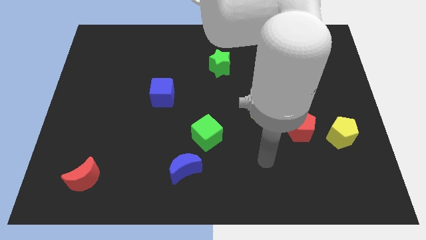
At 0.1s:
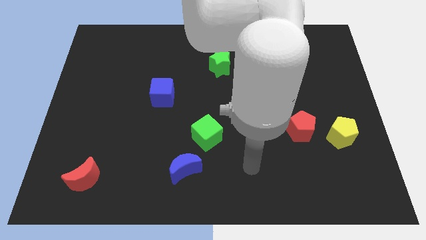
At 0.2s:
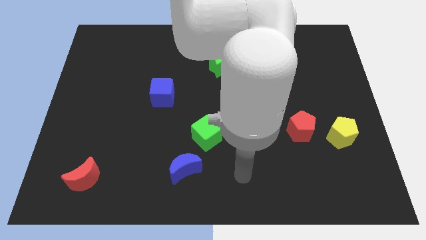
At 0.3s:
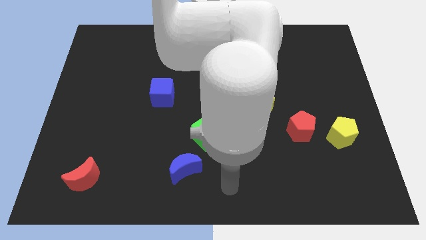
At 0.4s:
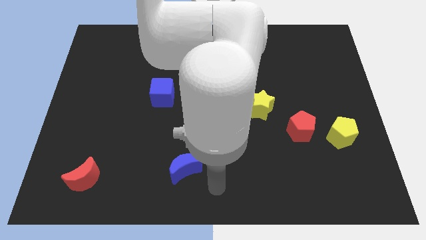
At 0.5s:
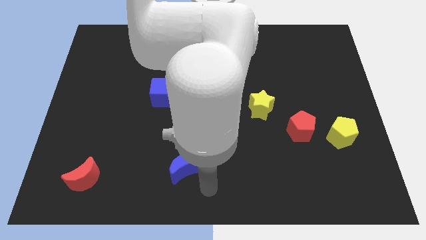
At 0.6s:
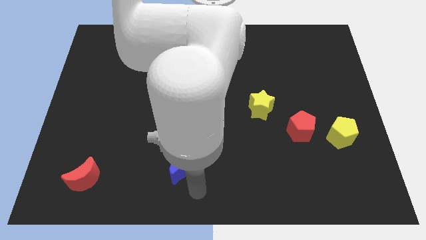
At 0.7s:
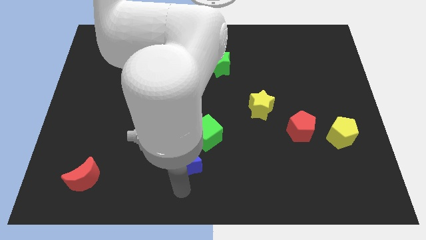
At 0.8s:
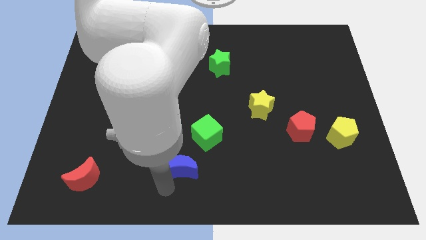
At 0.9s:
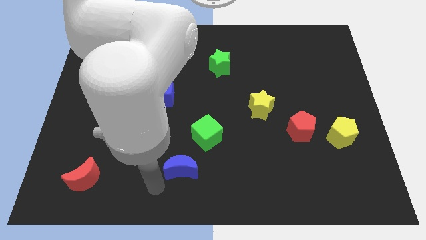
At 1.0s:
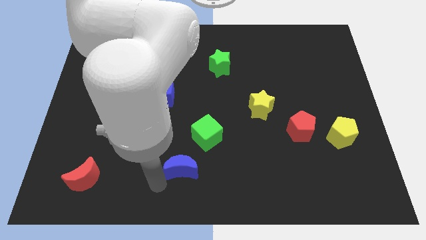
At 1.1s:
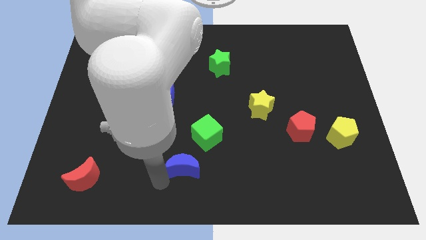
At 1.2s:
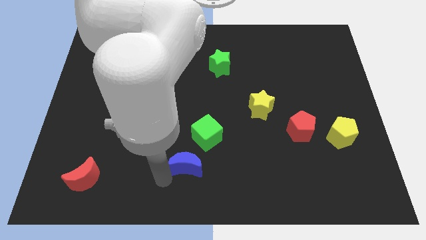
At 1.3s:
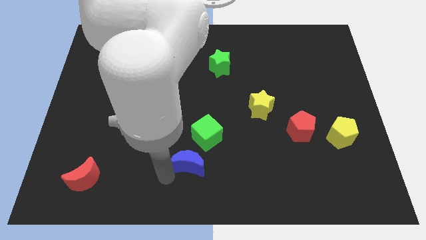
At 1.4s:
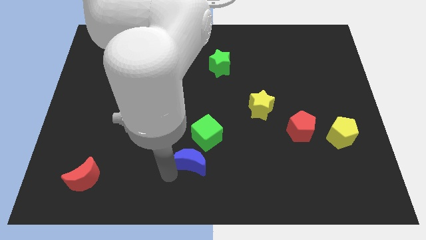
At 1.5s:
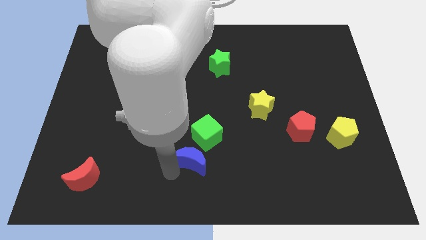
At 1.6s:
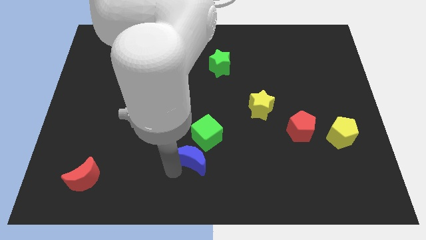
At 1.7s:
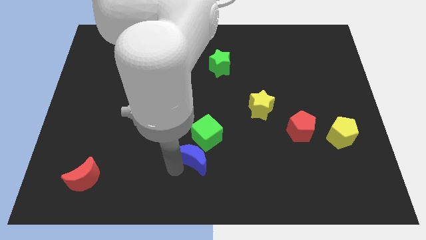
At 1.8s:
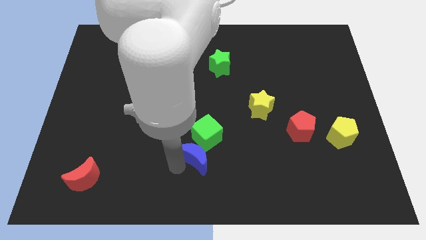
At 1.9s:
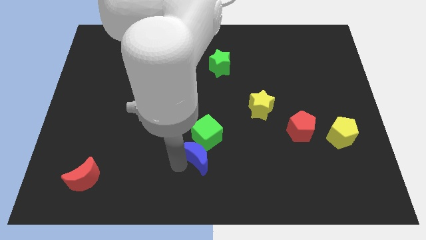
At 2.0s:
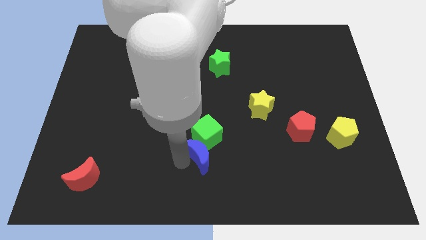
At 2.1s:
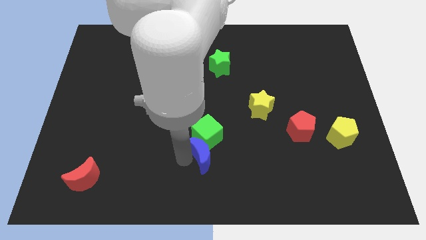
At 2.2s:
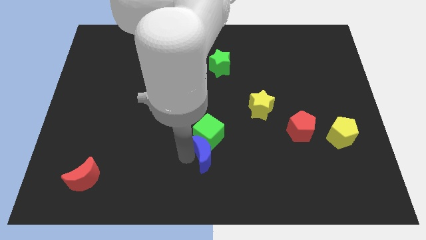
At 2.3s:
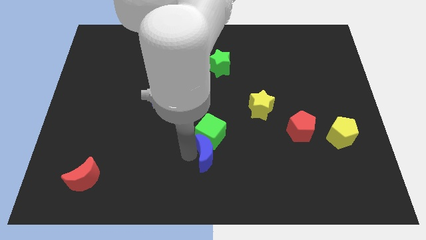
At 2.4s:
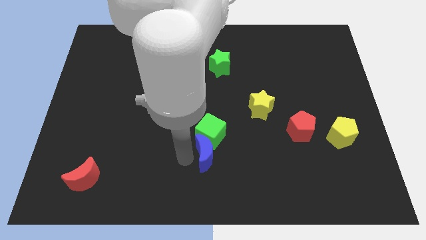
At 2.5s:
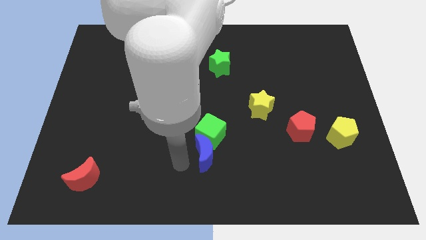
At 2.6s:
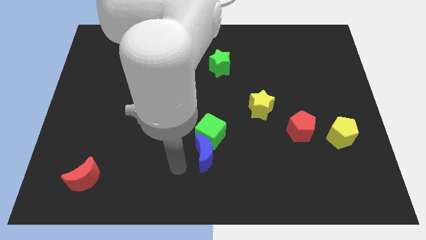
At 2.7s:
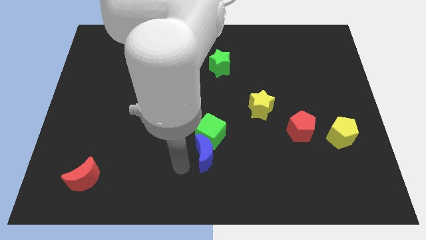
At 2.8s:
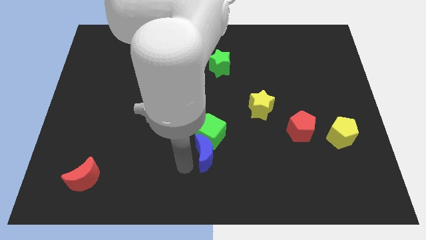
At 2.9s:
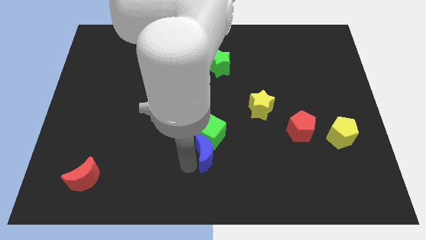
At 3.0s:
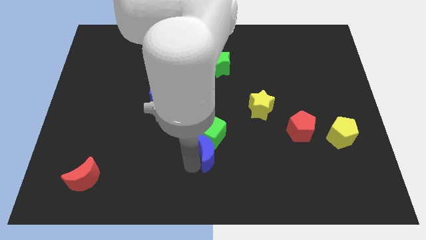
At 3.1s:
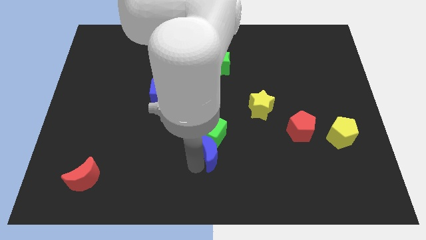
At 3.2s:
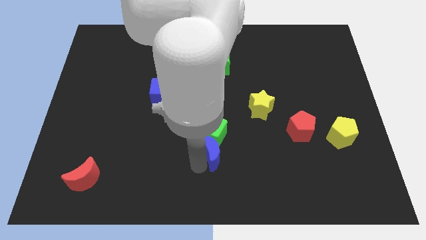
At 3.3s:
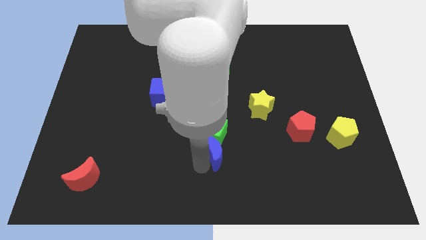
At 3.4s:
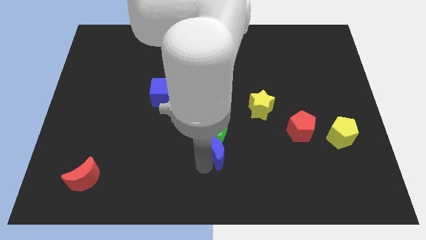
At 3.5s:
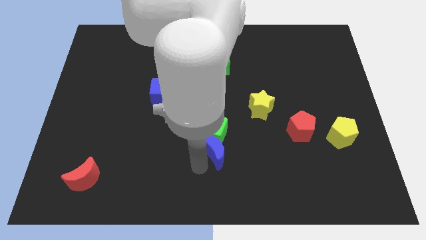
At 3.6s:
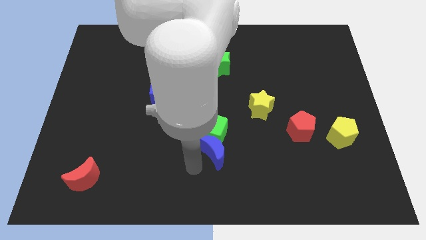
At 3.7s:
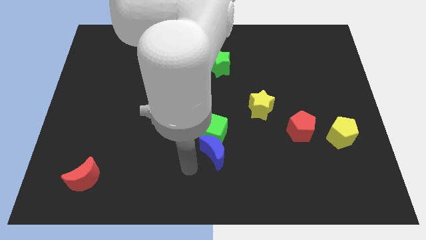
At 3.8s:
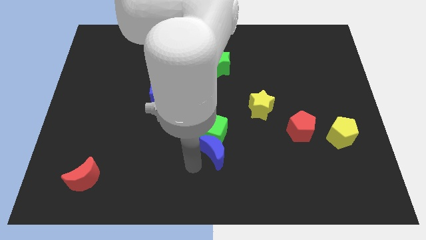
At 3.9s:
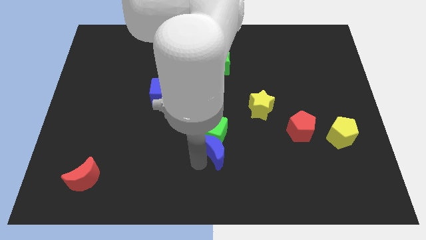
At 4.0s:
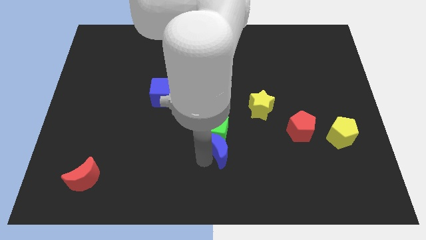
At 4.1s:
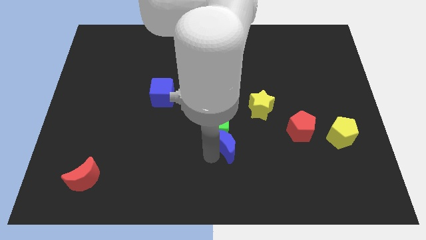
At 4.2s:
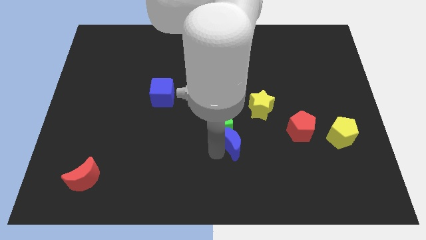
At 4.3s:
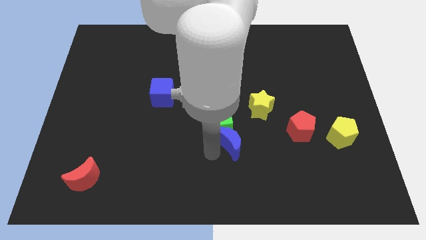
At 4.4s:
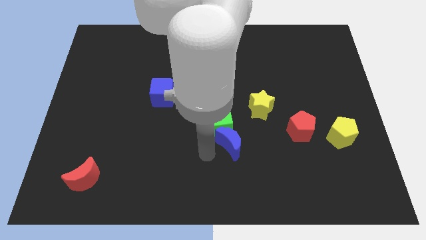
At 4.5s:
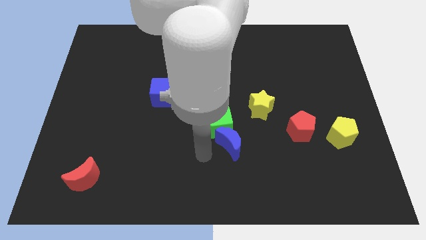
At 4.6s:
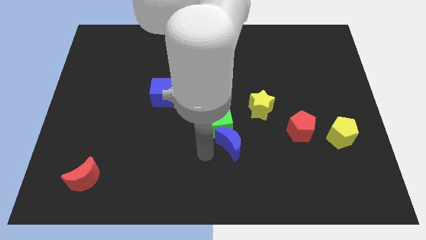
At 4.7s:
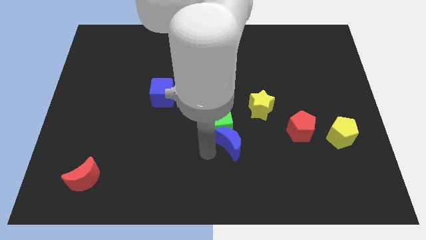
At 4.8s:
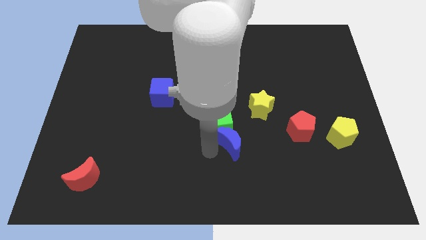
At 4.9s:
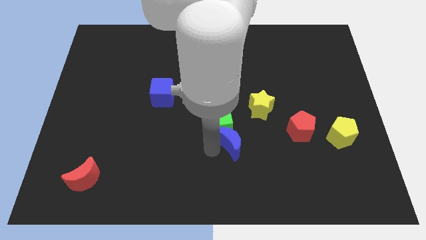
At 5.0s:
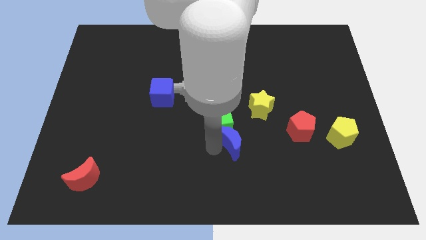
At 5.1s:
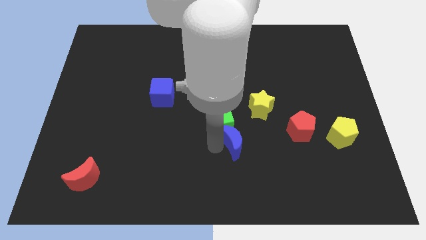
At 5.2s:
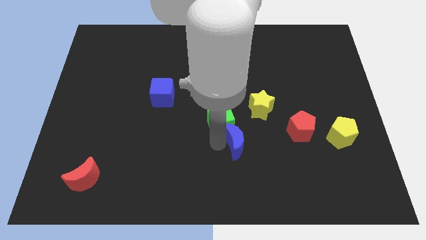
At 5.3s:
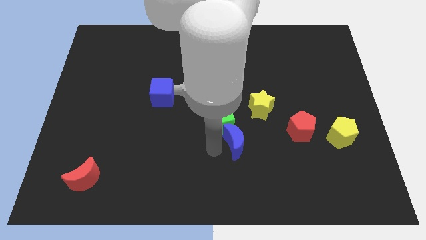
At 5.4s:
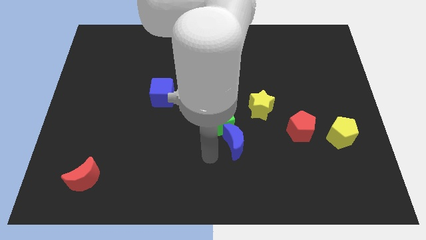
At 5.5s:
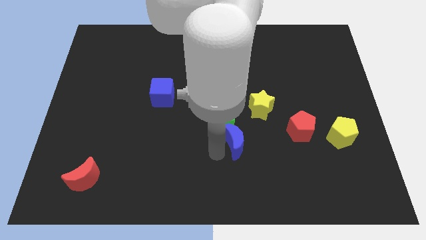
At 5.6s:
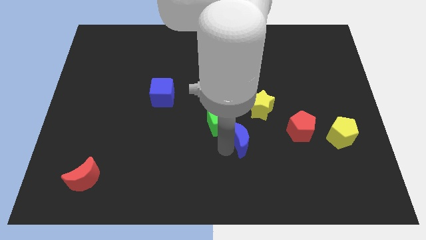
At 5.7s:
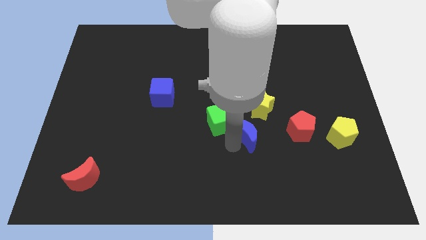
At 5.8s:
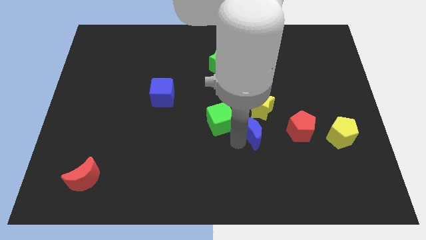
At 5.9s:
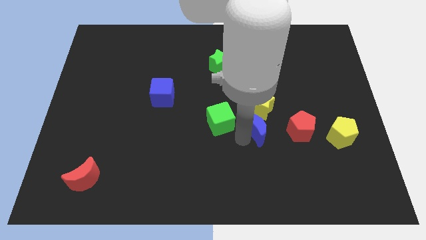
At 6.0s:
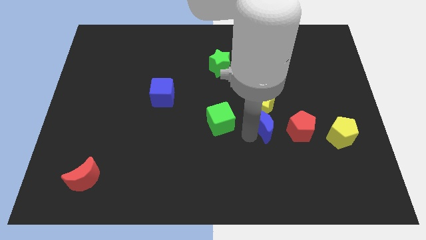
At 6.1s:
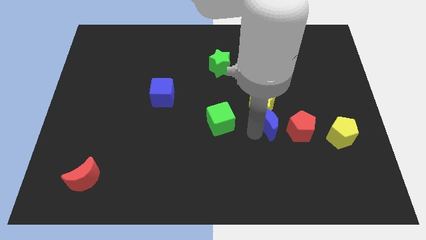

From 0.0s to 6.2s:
move the blue moon upwards and then right

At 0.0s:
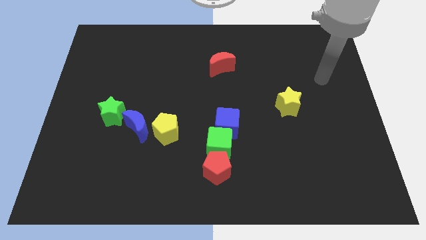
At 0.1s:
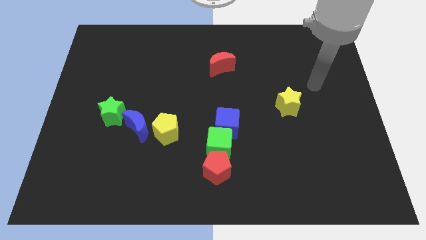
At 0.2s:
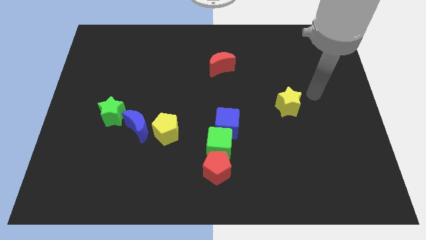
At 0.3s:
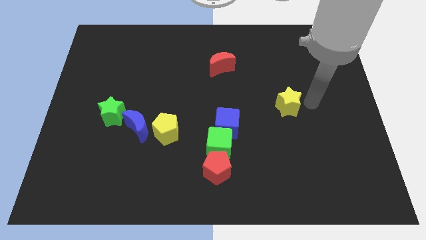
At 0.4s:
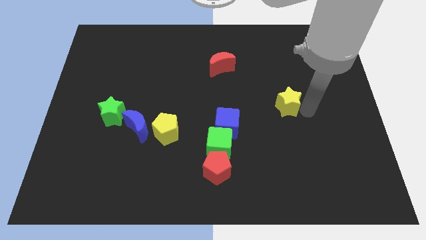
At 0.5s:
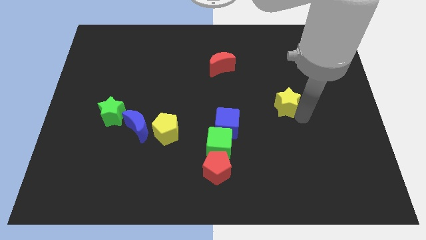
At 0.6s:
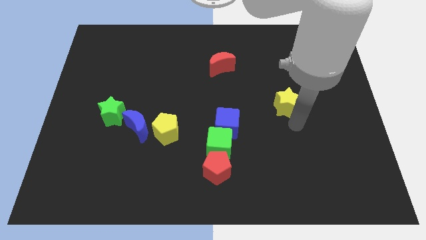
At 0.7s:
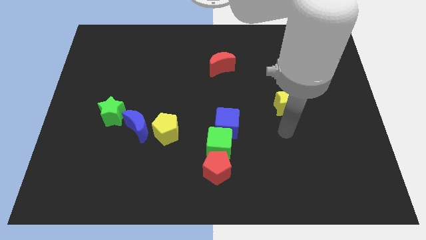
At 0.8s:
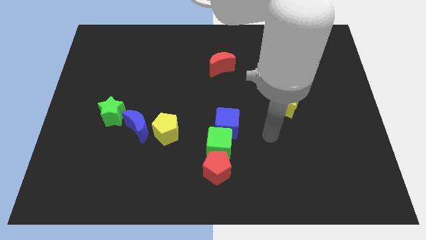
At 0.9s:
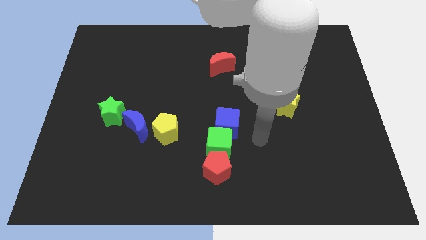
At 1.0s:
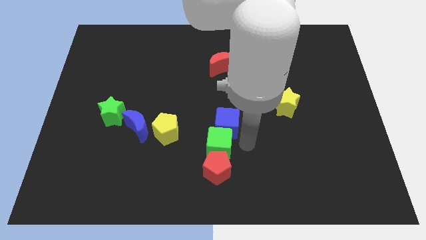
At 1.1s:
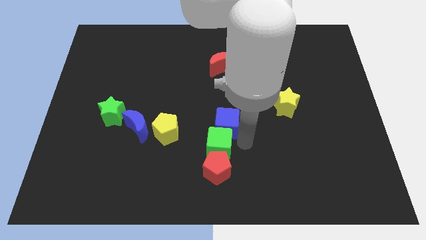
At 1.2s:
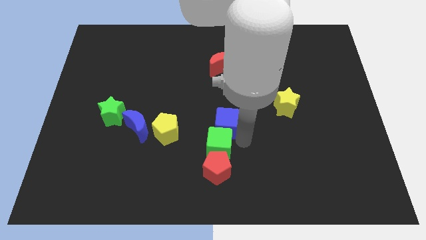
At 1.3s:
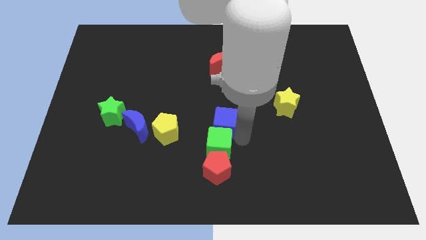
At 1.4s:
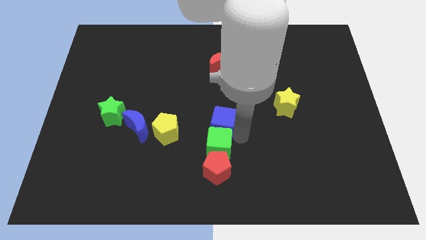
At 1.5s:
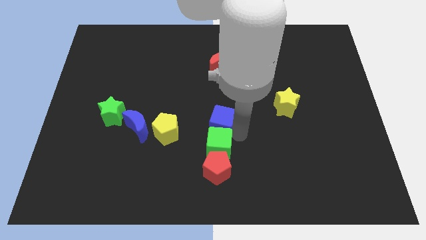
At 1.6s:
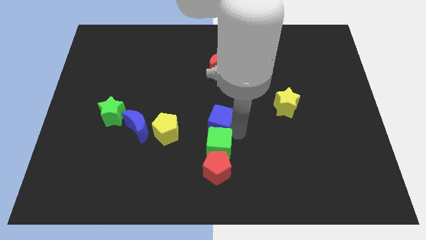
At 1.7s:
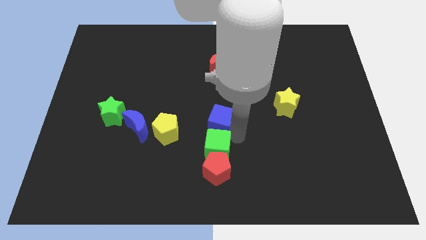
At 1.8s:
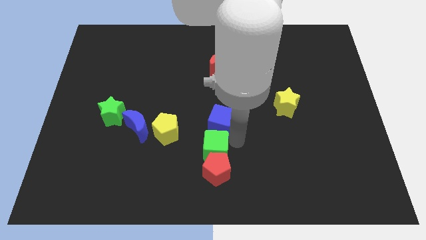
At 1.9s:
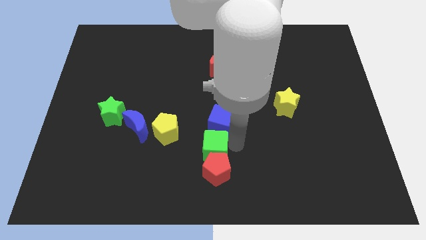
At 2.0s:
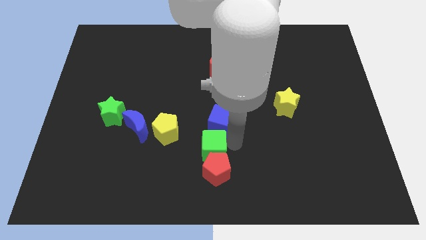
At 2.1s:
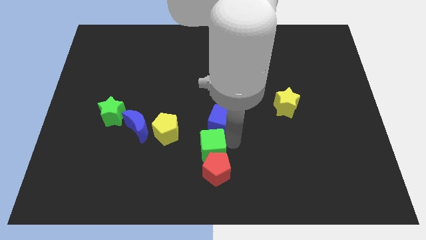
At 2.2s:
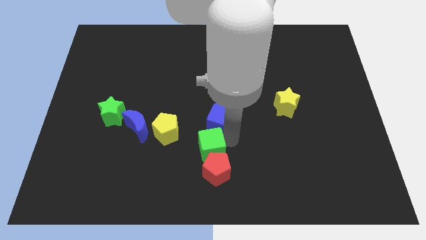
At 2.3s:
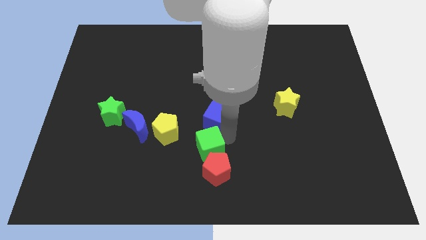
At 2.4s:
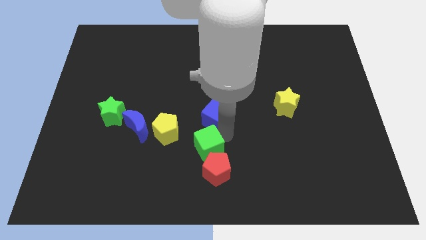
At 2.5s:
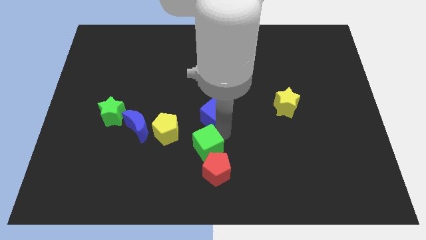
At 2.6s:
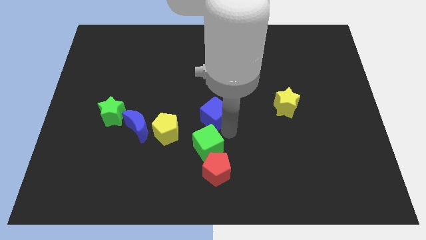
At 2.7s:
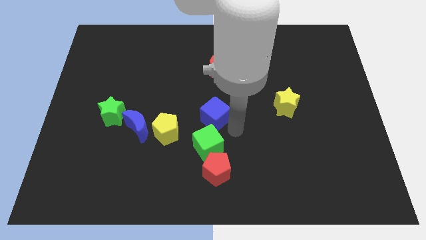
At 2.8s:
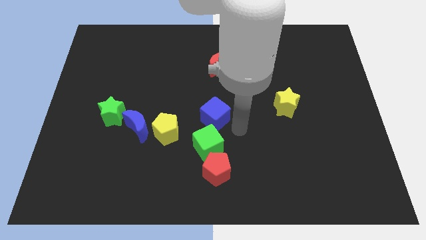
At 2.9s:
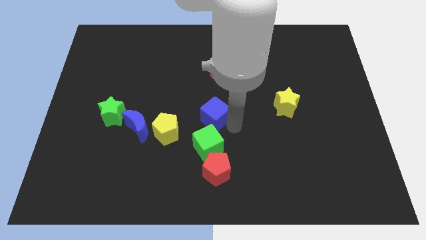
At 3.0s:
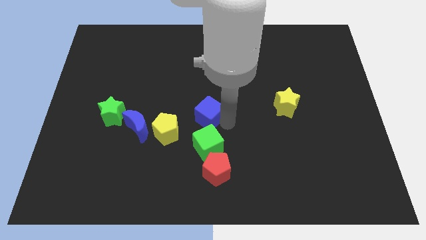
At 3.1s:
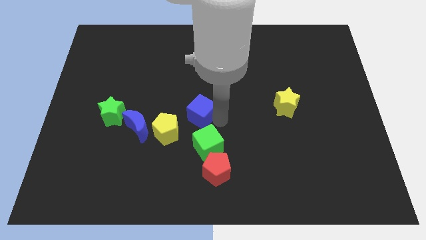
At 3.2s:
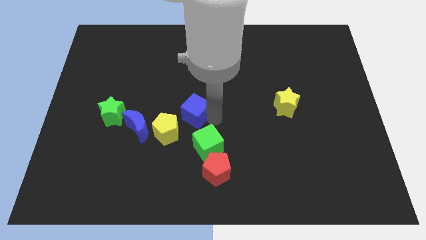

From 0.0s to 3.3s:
slide the blue cube a little bit upwards and left
